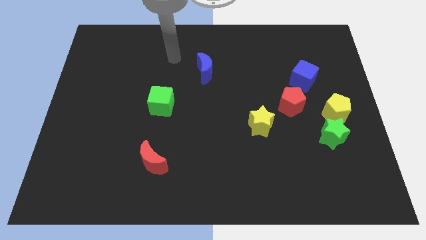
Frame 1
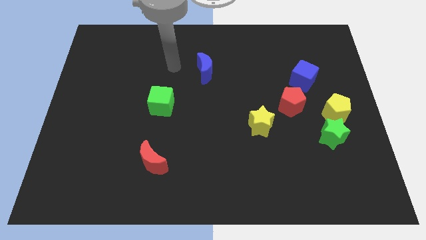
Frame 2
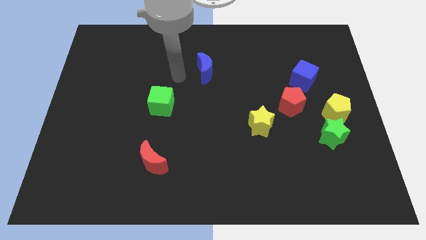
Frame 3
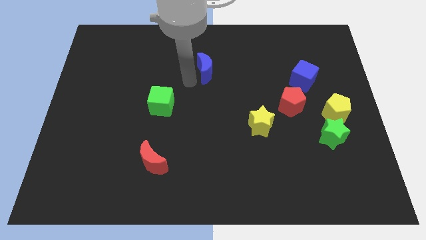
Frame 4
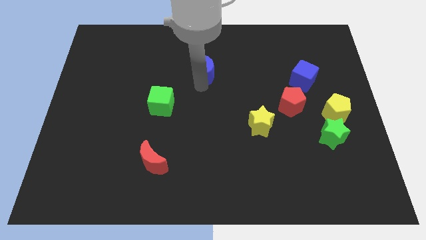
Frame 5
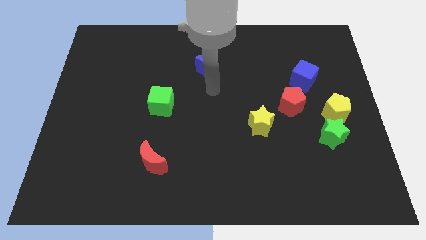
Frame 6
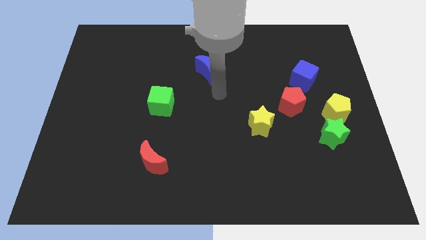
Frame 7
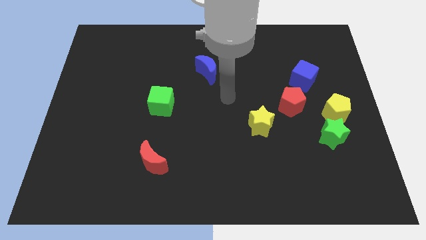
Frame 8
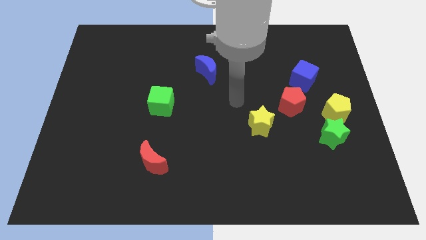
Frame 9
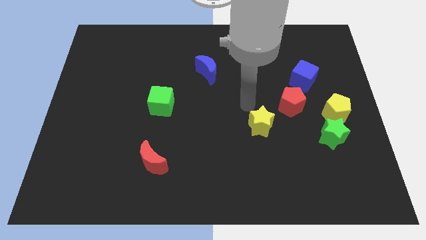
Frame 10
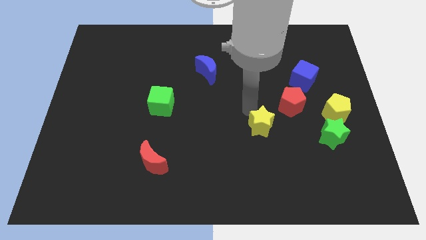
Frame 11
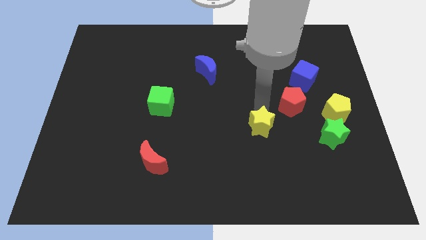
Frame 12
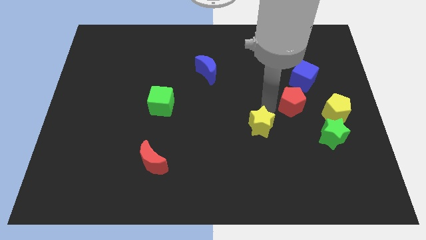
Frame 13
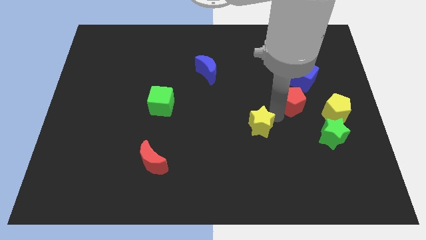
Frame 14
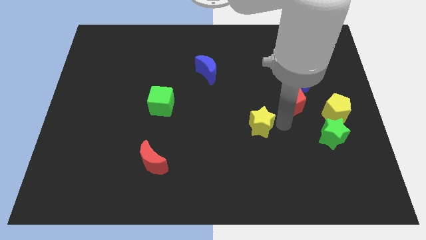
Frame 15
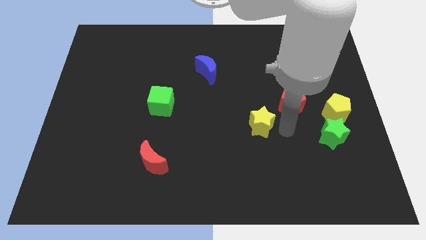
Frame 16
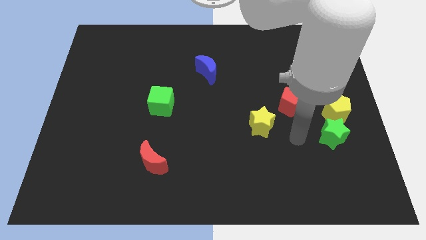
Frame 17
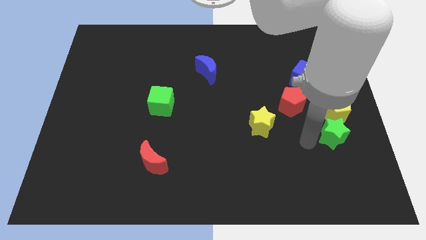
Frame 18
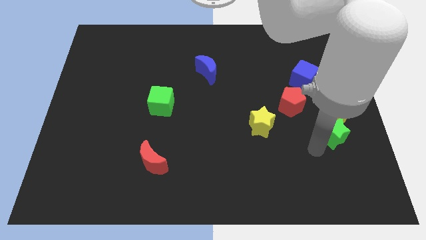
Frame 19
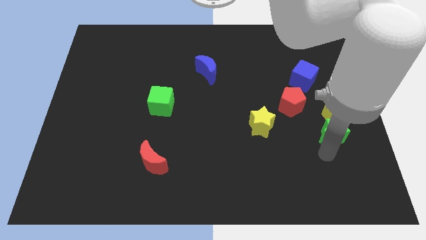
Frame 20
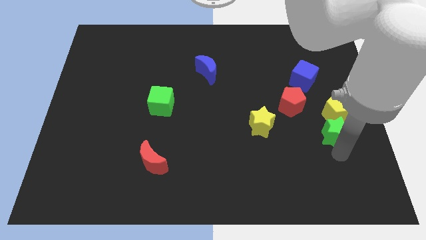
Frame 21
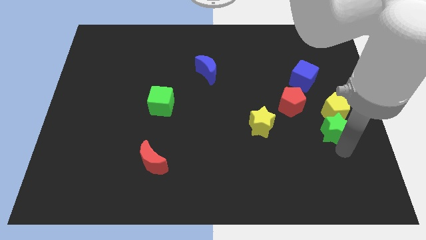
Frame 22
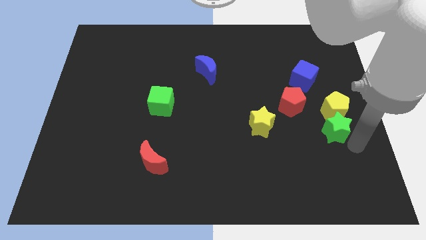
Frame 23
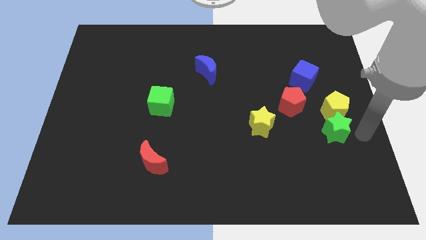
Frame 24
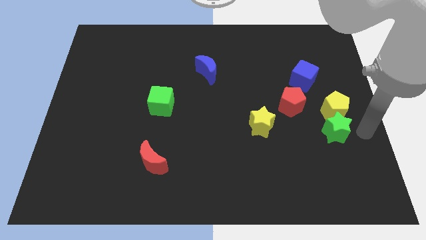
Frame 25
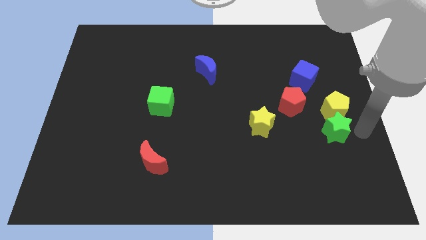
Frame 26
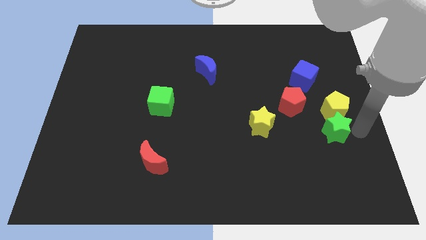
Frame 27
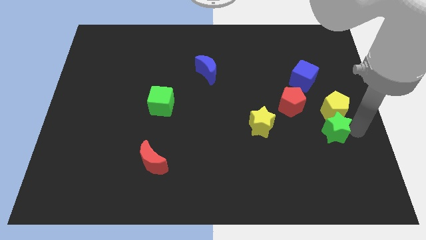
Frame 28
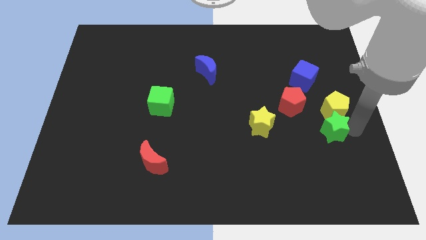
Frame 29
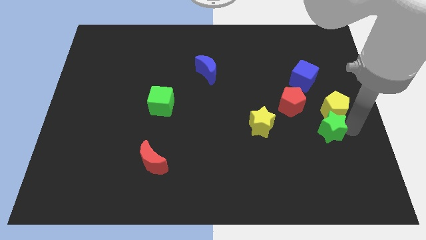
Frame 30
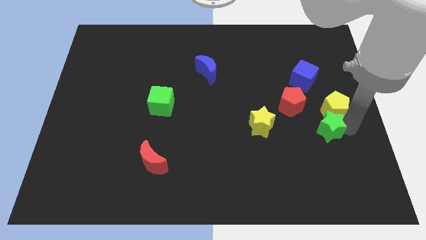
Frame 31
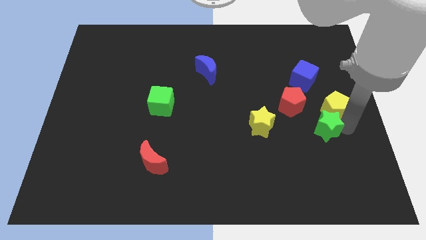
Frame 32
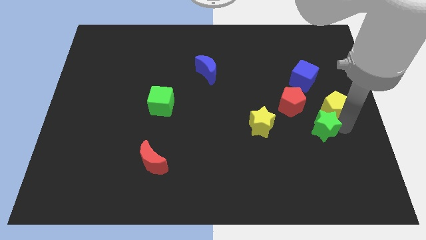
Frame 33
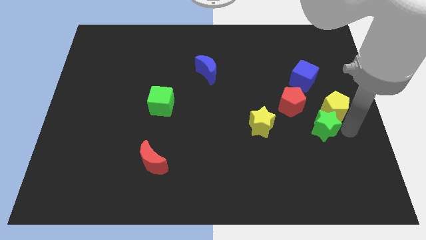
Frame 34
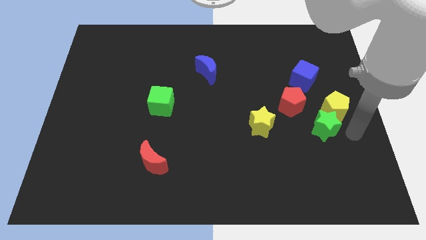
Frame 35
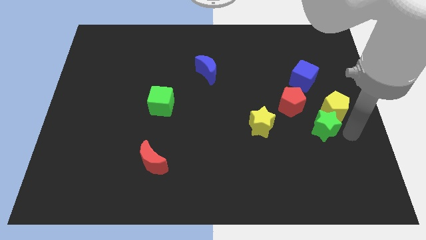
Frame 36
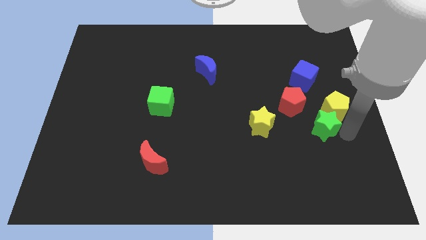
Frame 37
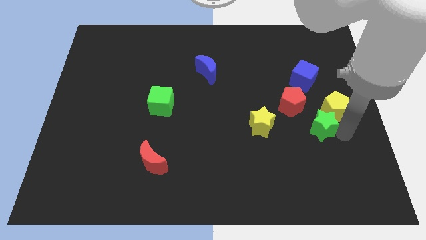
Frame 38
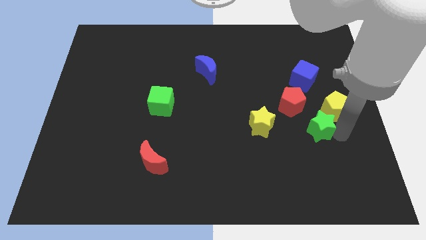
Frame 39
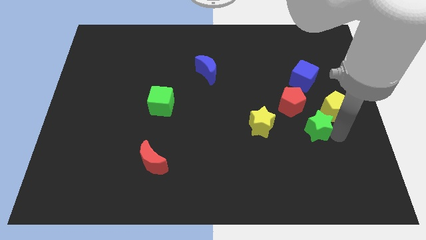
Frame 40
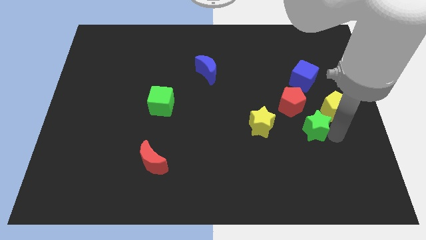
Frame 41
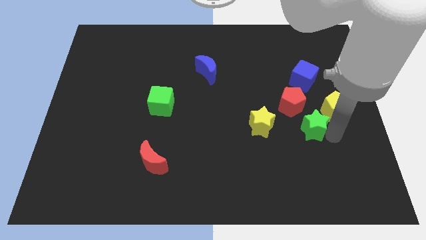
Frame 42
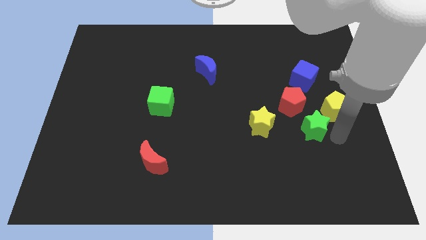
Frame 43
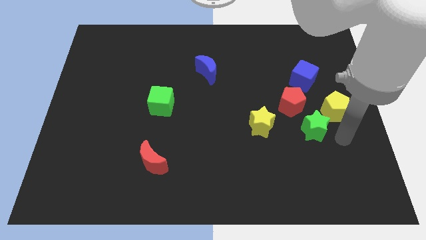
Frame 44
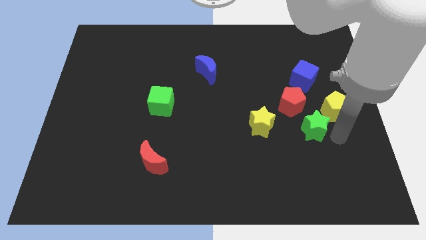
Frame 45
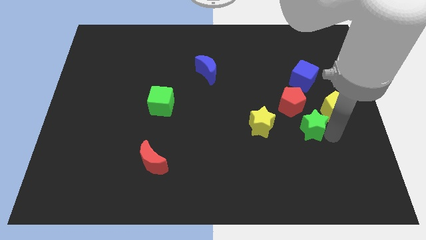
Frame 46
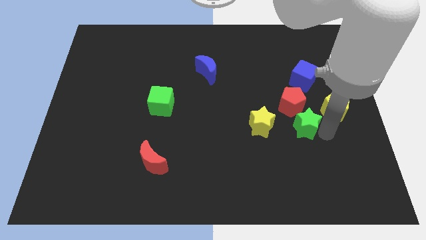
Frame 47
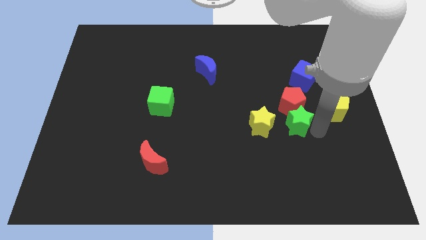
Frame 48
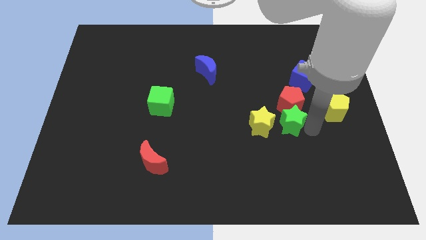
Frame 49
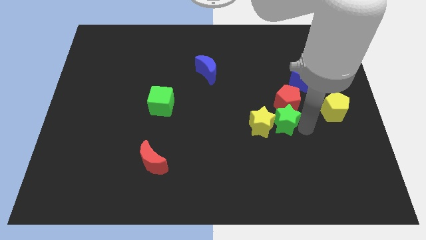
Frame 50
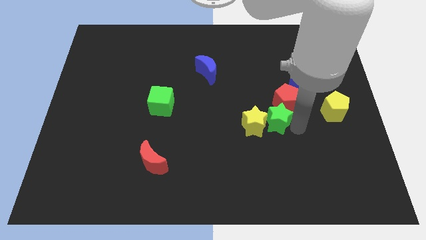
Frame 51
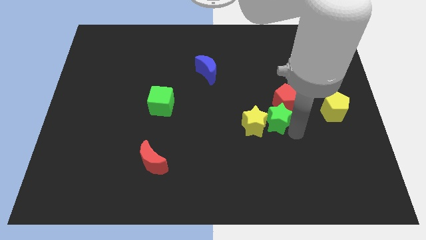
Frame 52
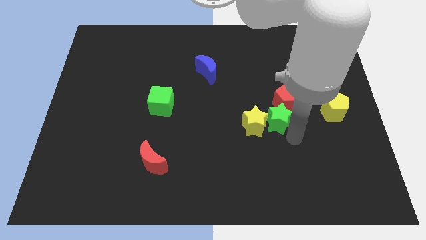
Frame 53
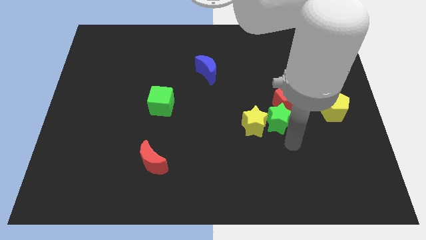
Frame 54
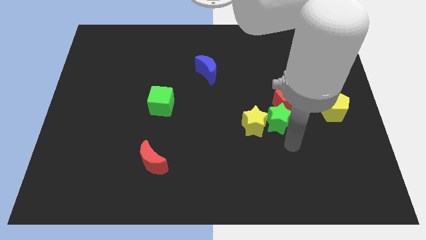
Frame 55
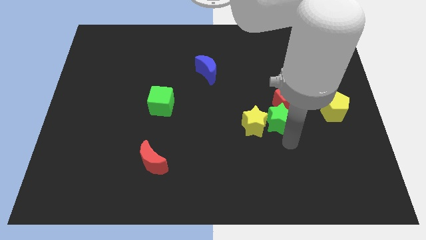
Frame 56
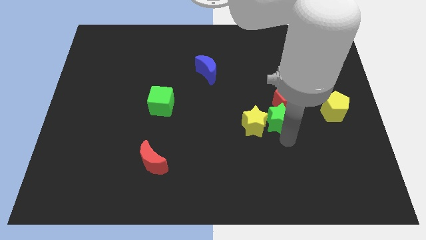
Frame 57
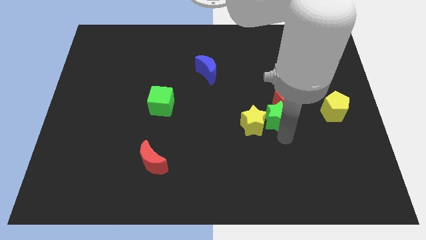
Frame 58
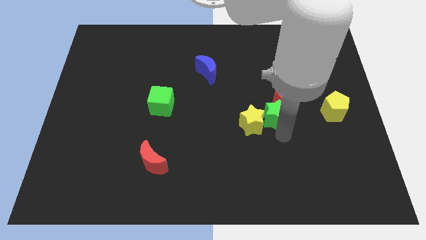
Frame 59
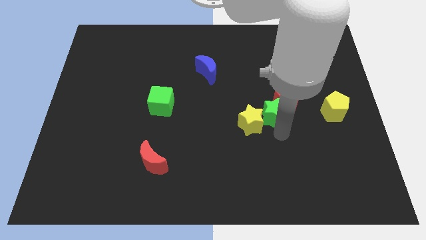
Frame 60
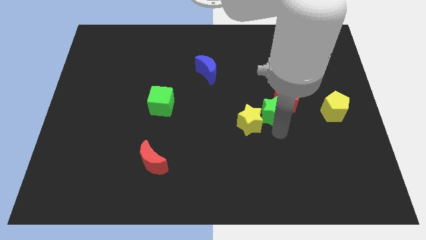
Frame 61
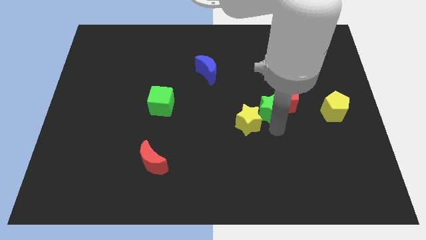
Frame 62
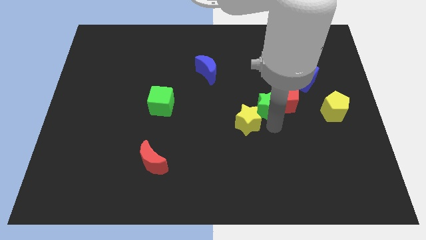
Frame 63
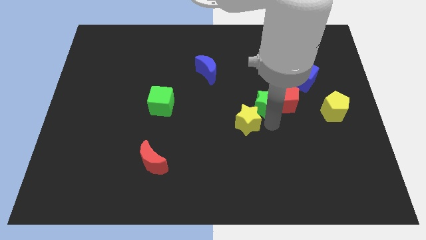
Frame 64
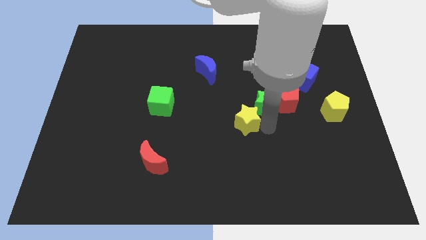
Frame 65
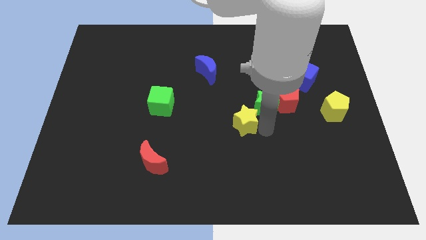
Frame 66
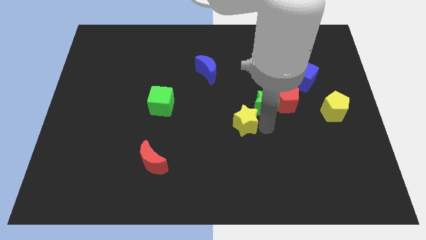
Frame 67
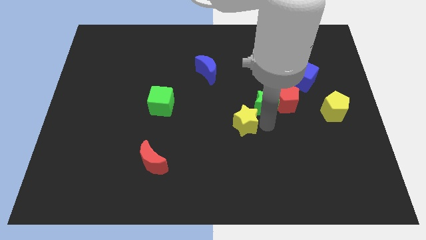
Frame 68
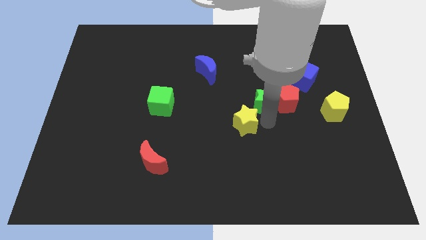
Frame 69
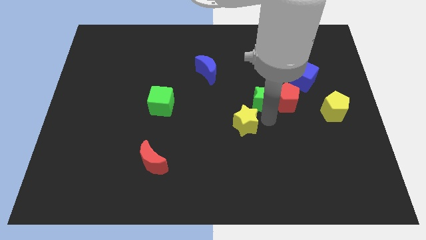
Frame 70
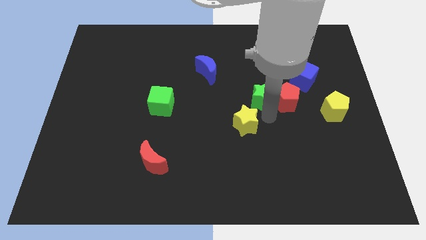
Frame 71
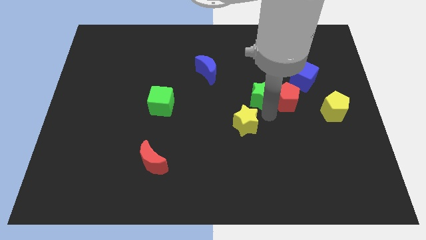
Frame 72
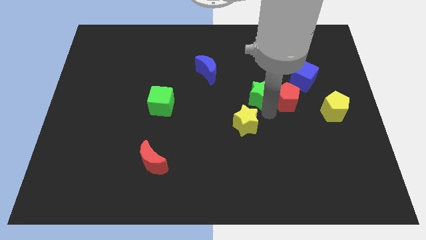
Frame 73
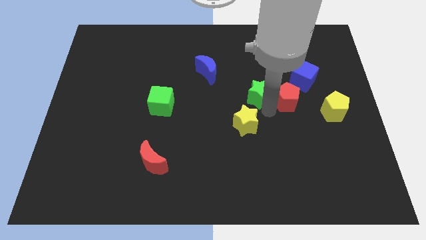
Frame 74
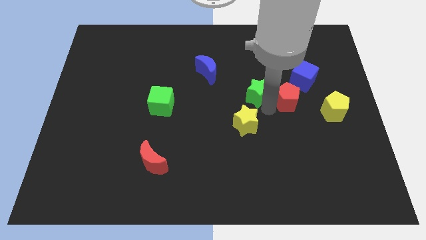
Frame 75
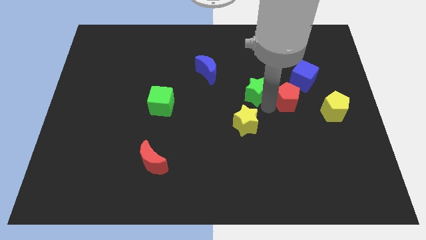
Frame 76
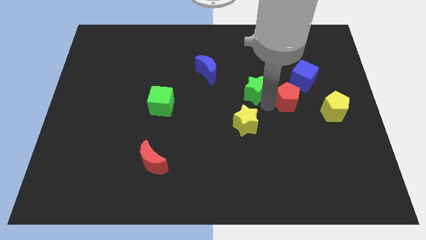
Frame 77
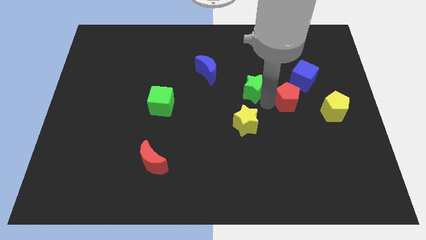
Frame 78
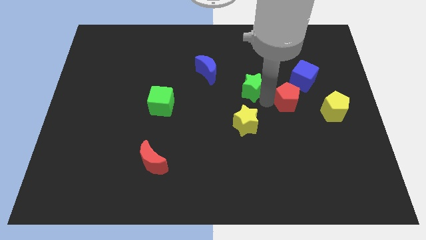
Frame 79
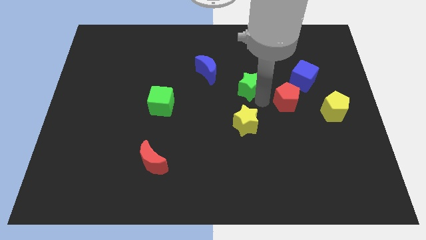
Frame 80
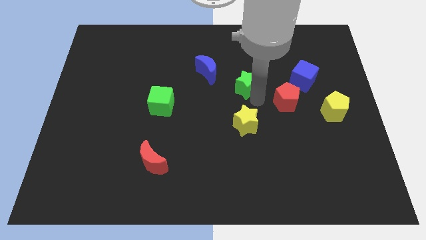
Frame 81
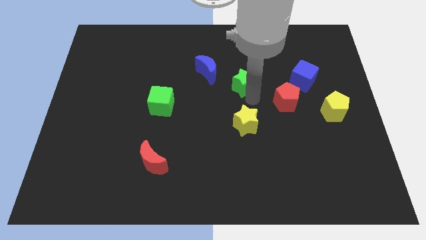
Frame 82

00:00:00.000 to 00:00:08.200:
move the green star to the right of the blue moon
